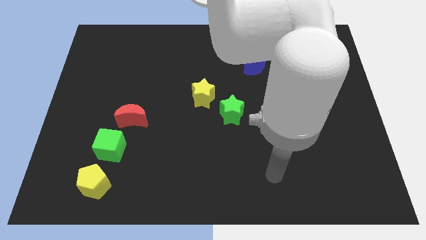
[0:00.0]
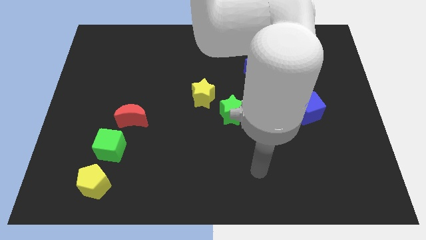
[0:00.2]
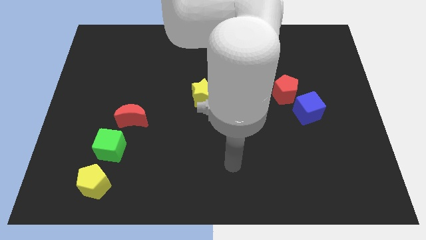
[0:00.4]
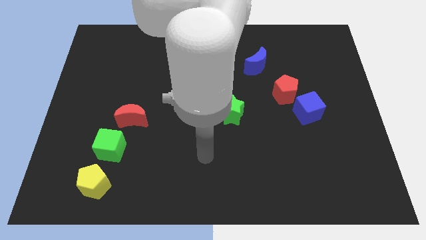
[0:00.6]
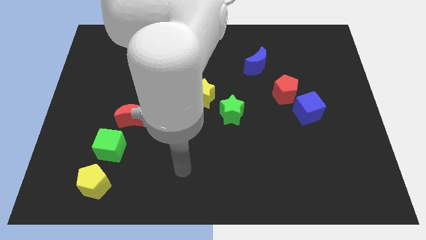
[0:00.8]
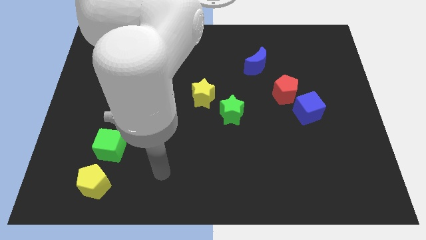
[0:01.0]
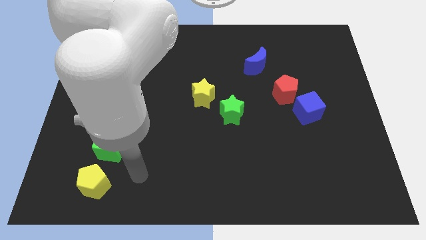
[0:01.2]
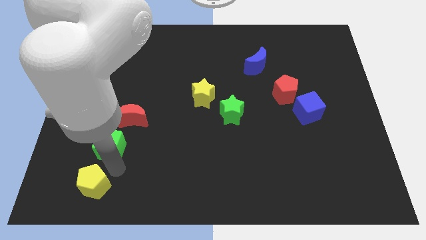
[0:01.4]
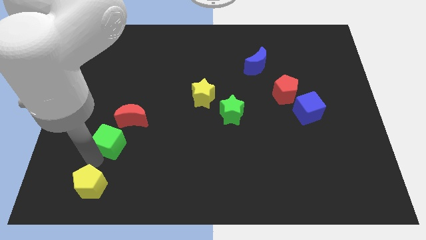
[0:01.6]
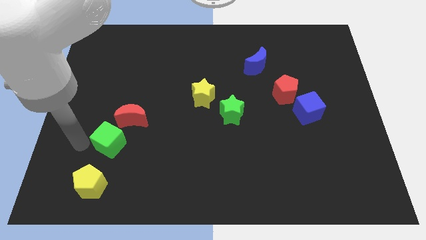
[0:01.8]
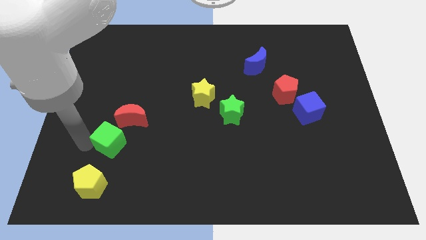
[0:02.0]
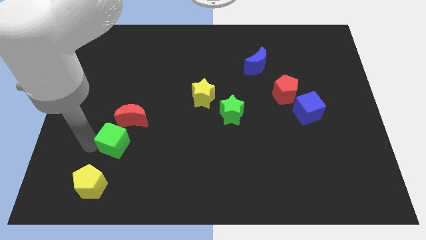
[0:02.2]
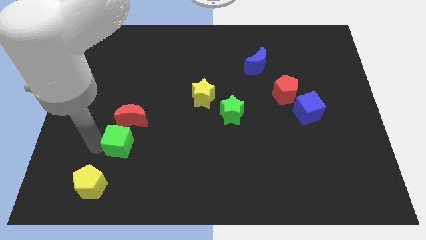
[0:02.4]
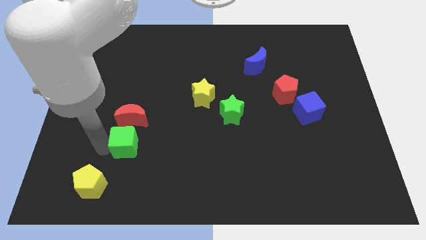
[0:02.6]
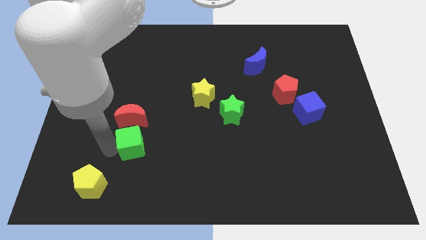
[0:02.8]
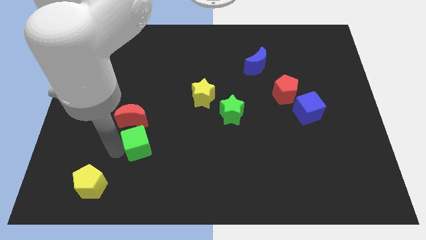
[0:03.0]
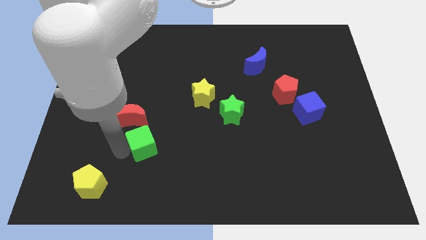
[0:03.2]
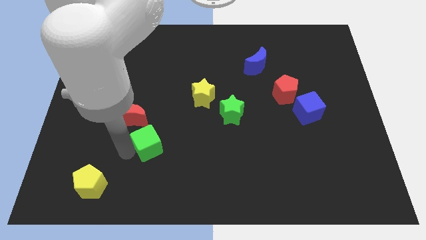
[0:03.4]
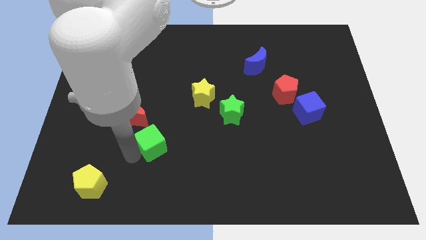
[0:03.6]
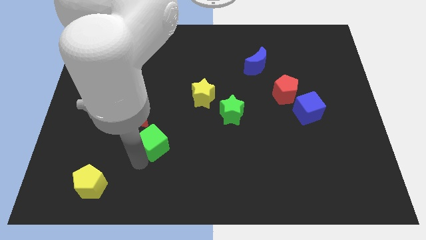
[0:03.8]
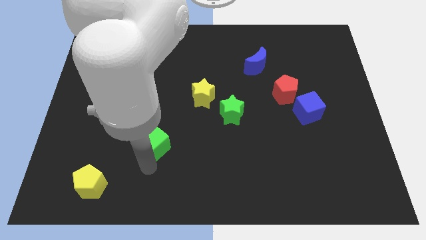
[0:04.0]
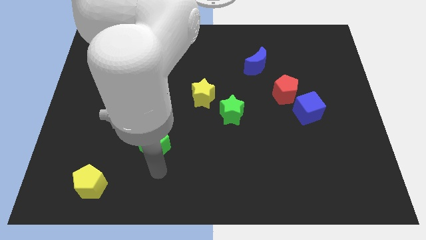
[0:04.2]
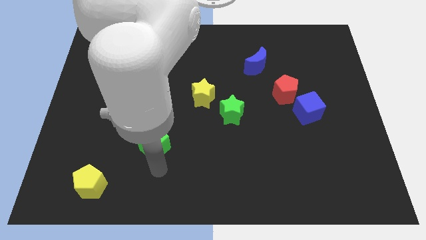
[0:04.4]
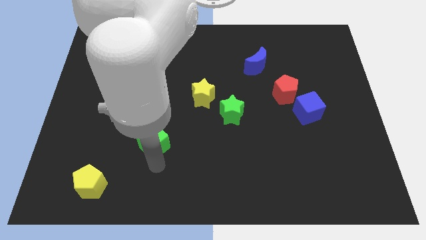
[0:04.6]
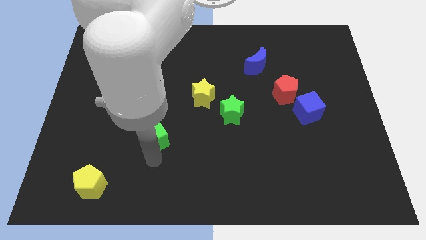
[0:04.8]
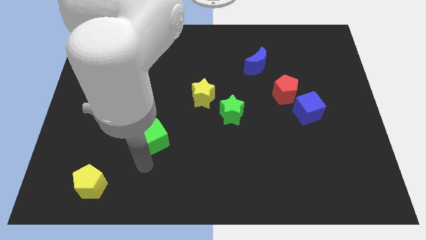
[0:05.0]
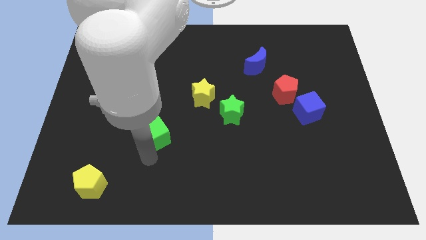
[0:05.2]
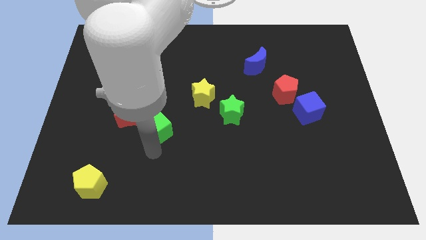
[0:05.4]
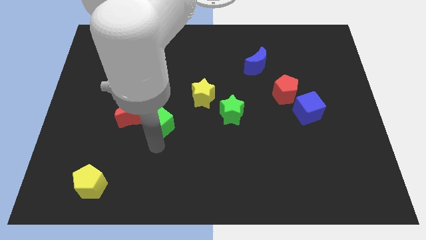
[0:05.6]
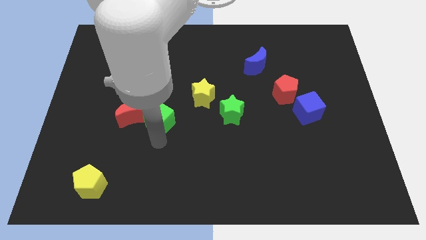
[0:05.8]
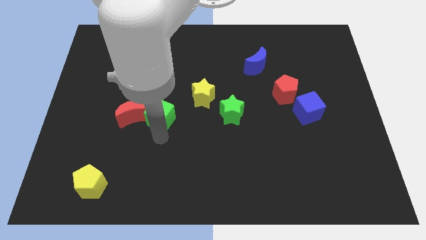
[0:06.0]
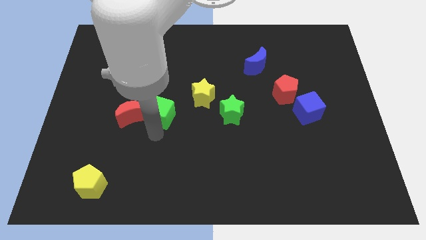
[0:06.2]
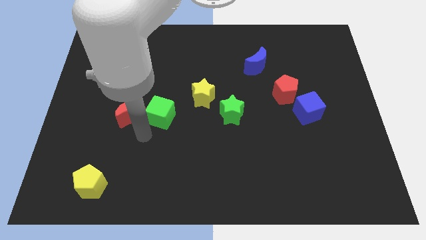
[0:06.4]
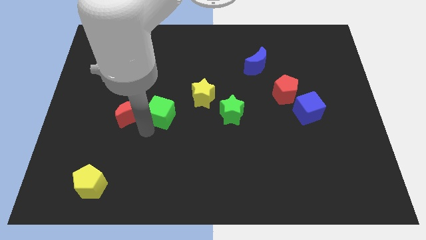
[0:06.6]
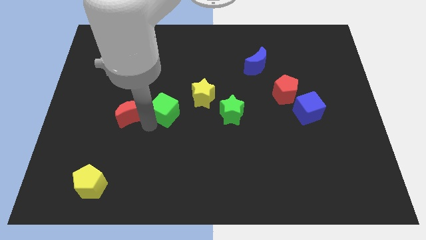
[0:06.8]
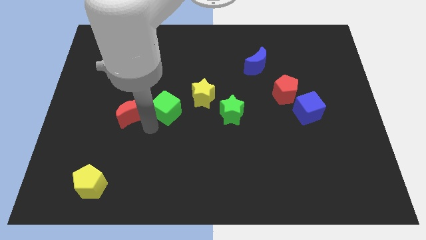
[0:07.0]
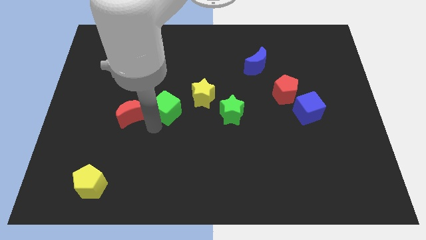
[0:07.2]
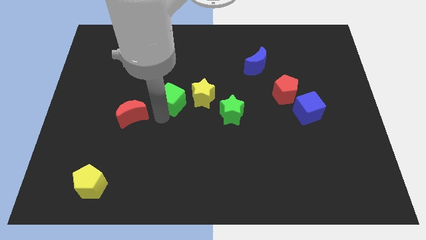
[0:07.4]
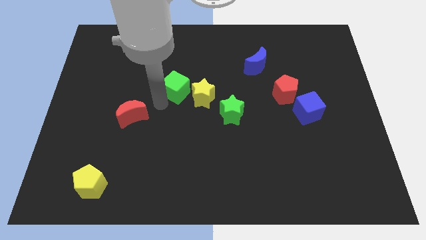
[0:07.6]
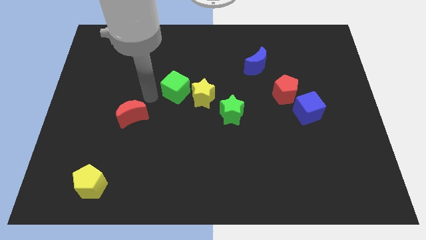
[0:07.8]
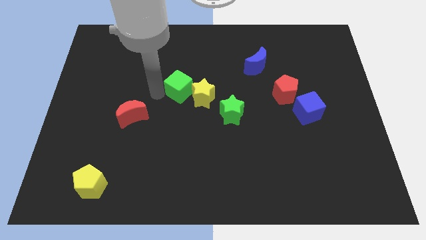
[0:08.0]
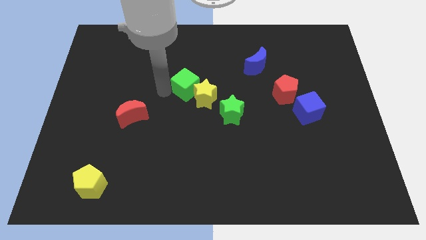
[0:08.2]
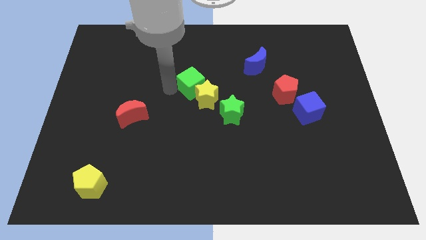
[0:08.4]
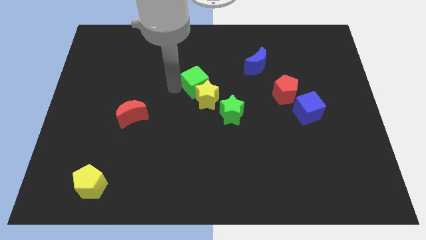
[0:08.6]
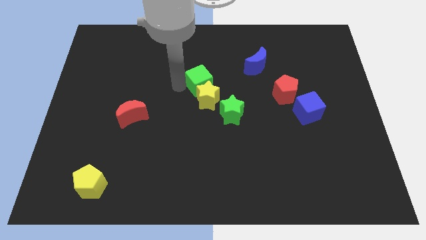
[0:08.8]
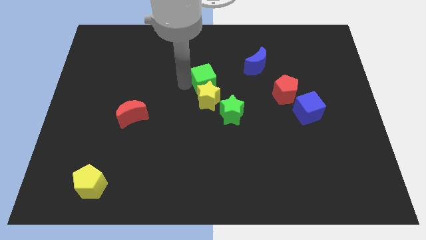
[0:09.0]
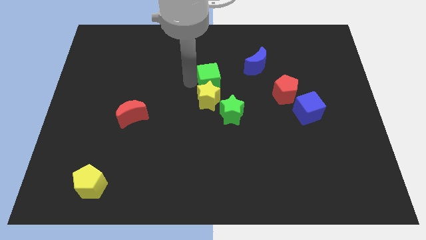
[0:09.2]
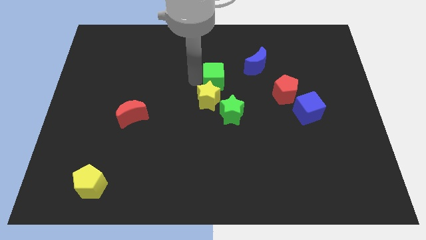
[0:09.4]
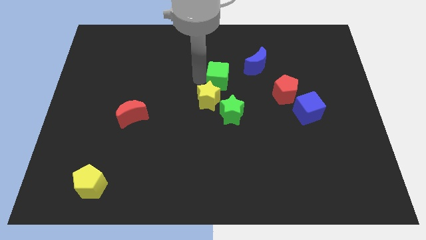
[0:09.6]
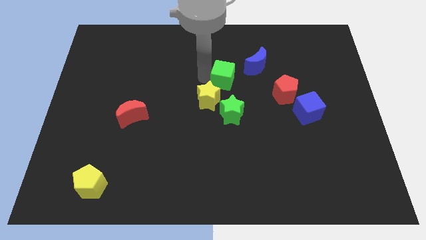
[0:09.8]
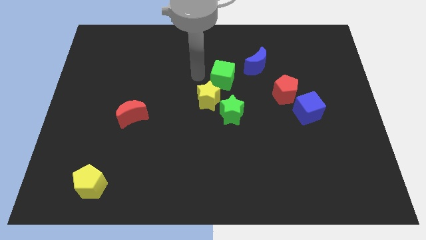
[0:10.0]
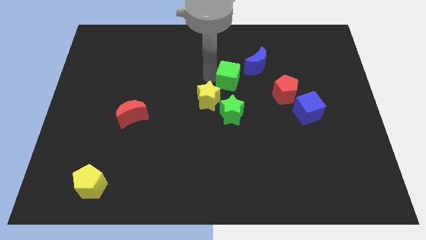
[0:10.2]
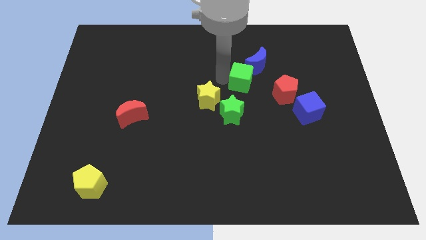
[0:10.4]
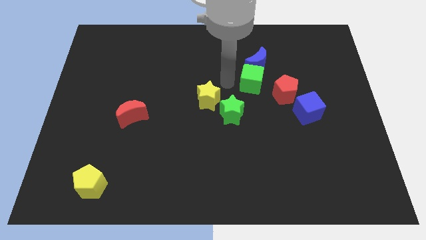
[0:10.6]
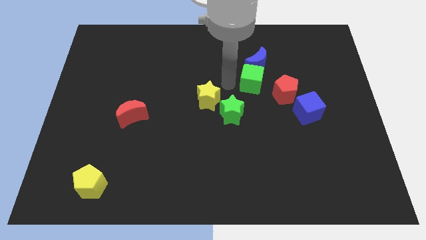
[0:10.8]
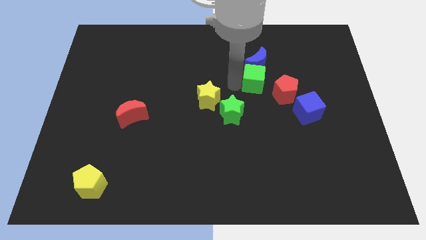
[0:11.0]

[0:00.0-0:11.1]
push the green cube to the bottom right side of the blue moon

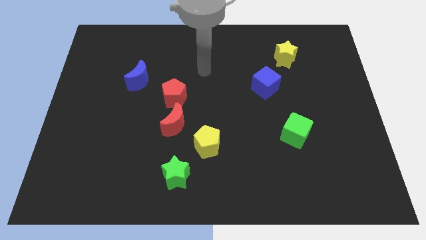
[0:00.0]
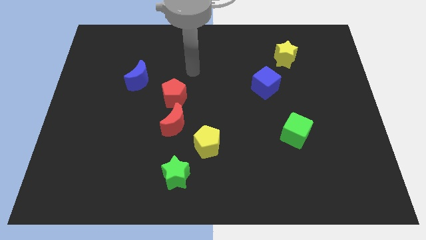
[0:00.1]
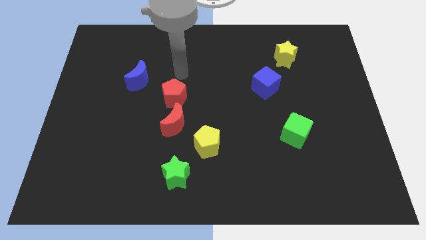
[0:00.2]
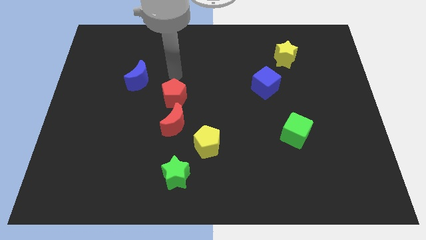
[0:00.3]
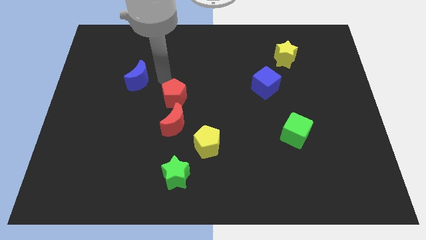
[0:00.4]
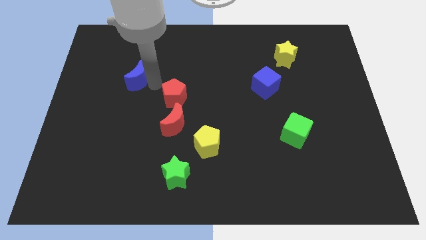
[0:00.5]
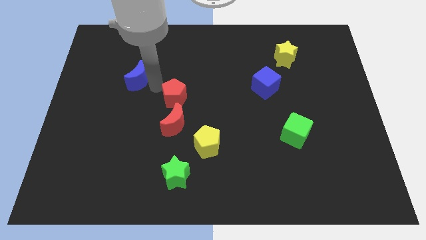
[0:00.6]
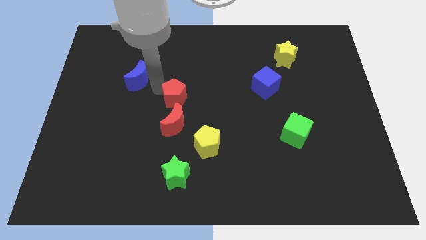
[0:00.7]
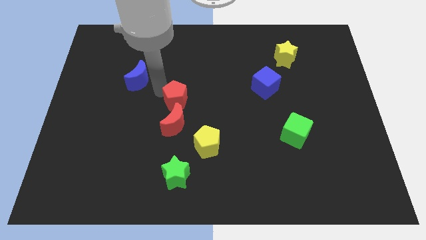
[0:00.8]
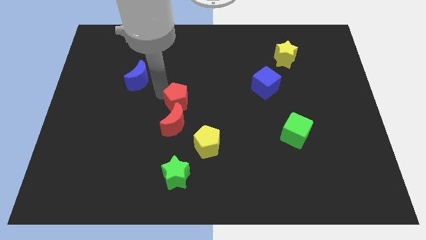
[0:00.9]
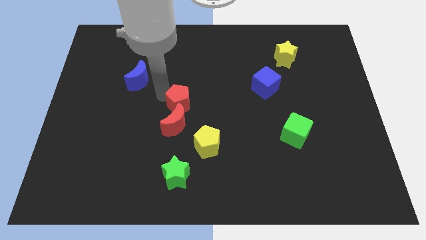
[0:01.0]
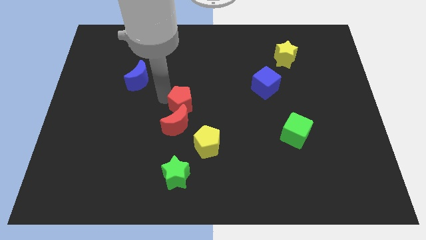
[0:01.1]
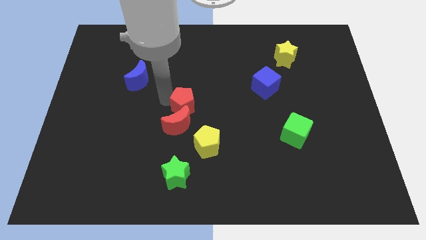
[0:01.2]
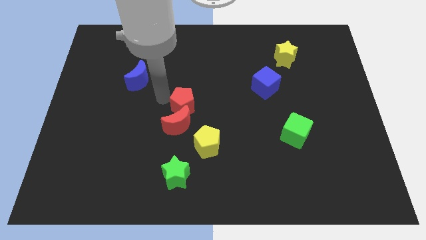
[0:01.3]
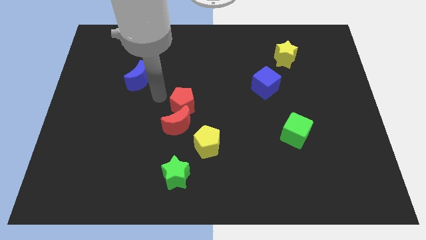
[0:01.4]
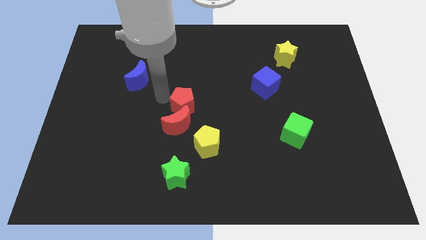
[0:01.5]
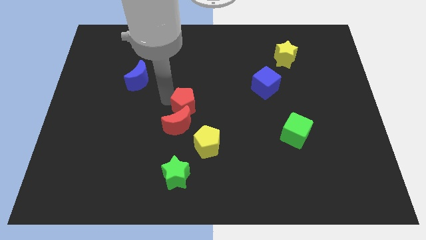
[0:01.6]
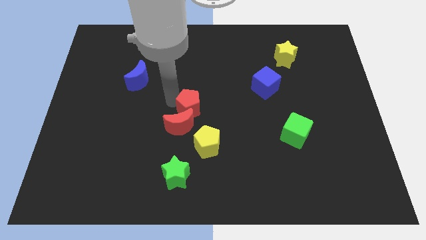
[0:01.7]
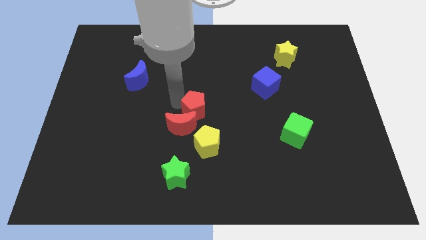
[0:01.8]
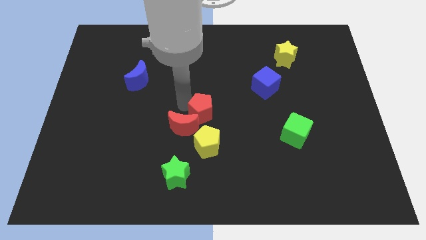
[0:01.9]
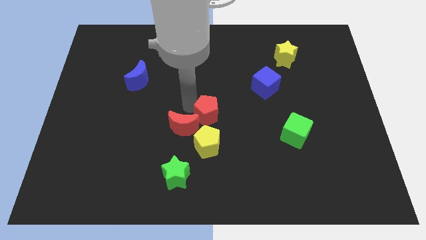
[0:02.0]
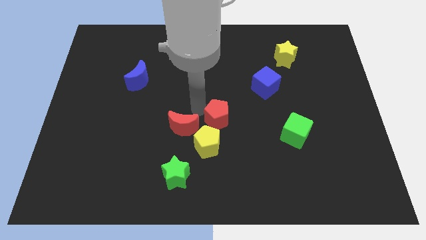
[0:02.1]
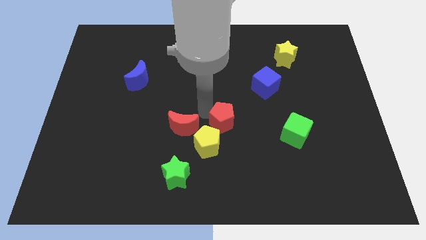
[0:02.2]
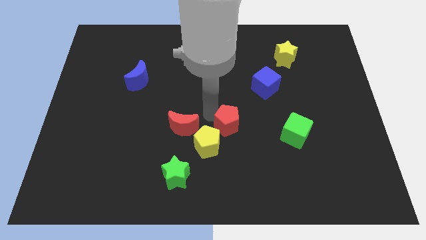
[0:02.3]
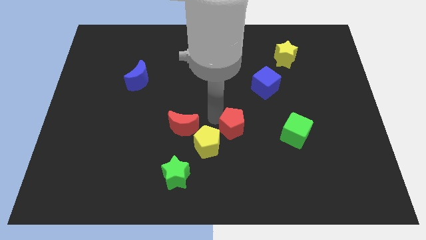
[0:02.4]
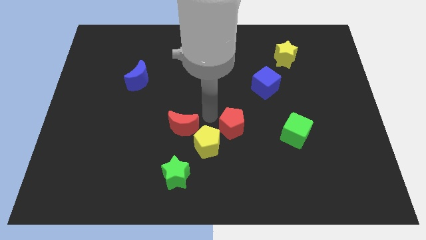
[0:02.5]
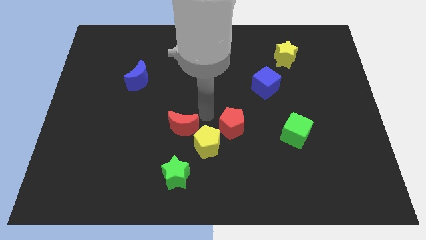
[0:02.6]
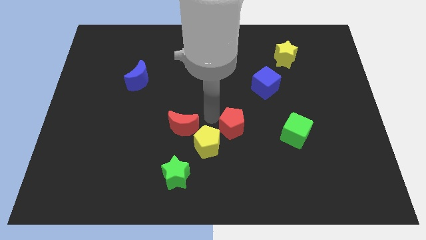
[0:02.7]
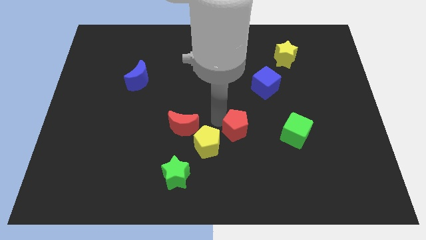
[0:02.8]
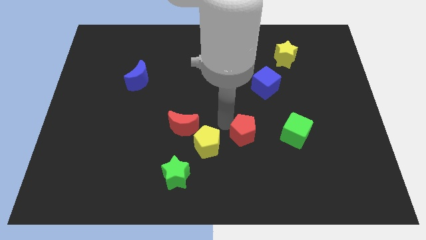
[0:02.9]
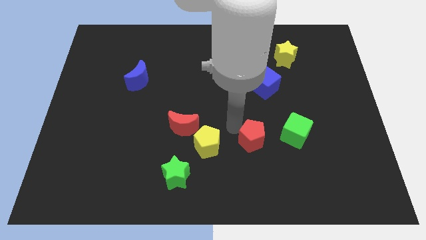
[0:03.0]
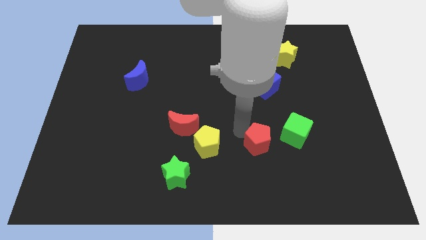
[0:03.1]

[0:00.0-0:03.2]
move the red pentagon diagonally down and to the left of the green cube
